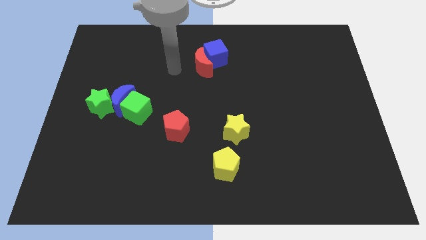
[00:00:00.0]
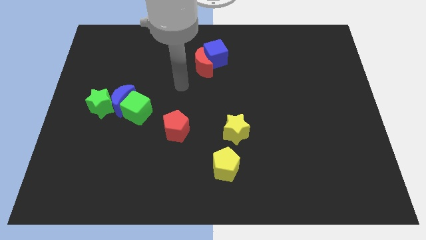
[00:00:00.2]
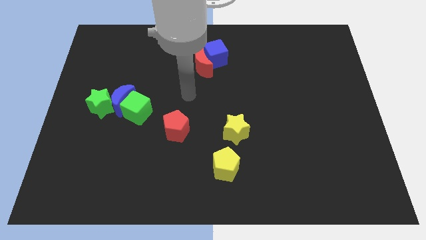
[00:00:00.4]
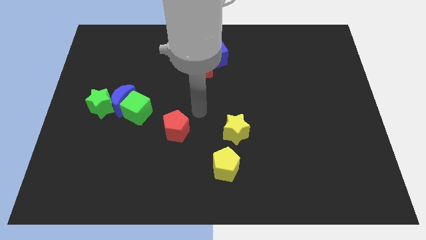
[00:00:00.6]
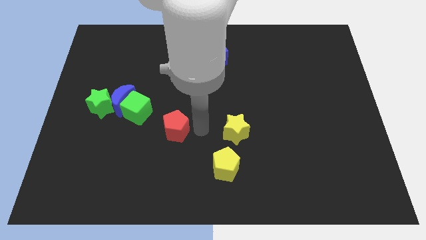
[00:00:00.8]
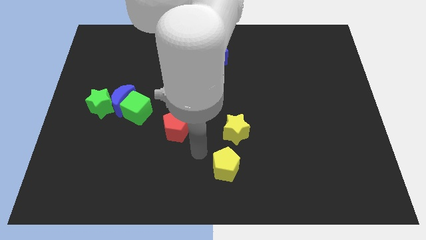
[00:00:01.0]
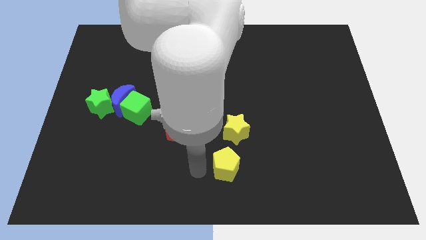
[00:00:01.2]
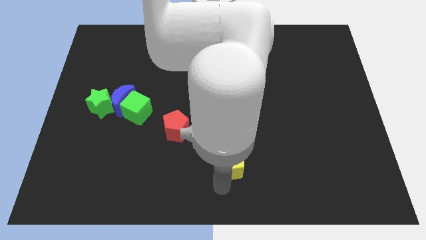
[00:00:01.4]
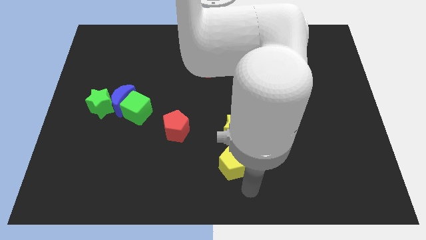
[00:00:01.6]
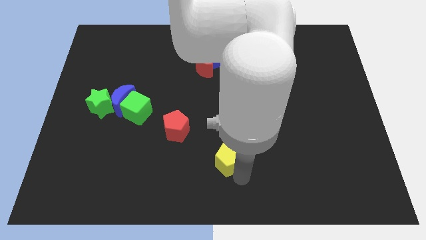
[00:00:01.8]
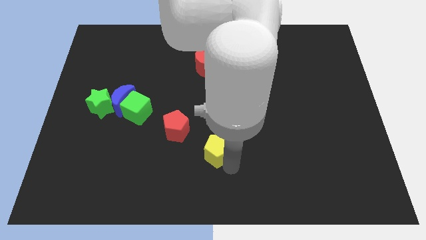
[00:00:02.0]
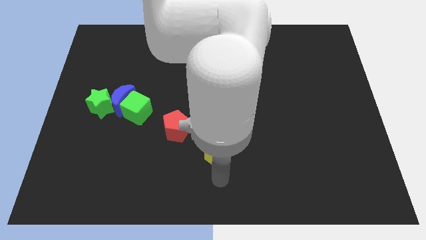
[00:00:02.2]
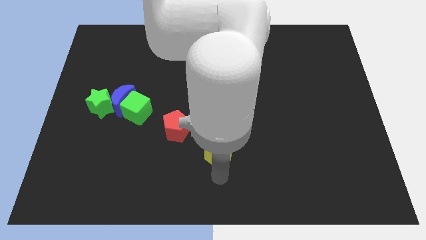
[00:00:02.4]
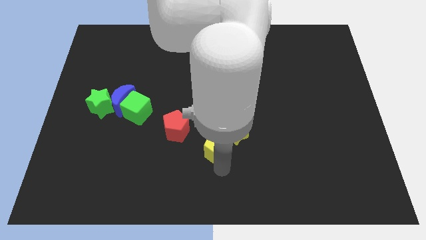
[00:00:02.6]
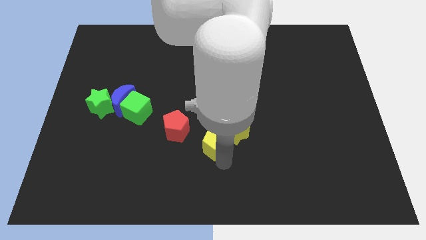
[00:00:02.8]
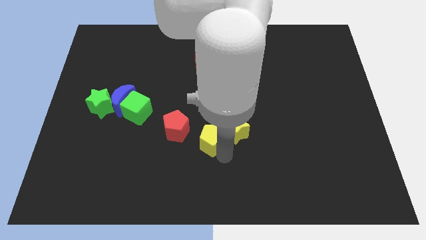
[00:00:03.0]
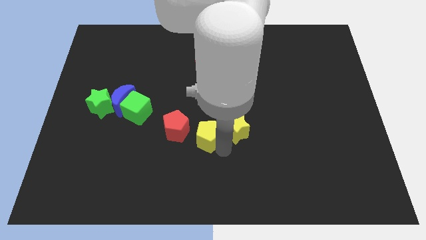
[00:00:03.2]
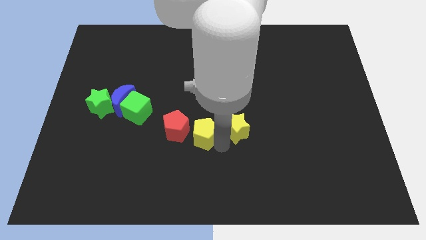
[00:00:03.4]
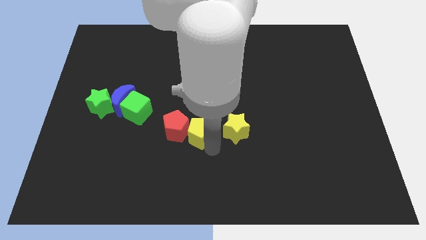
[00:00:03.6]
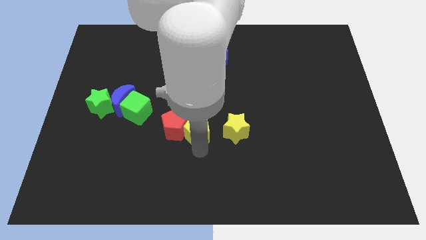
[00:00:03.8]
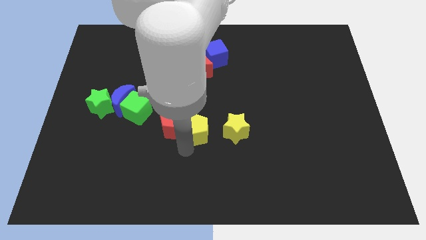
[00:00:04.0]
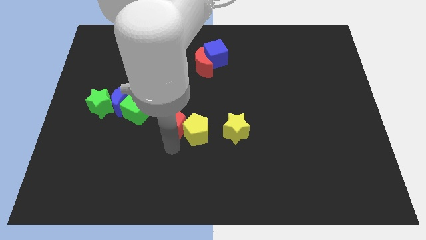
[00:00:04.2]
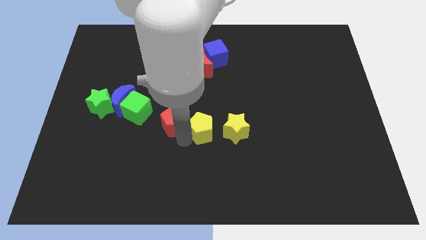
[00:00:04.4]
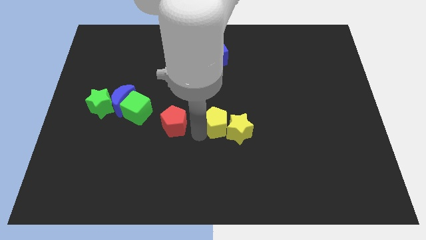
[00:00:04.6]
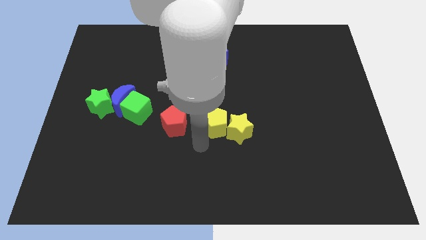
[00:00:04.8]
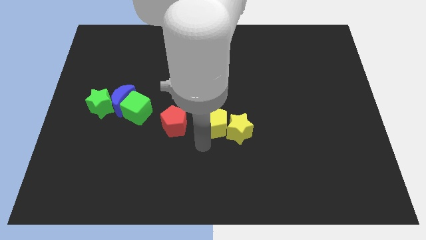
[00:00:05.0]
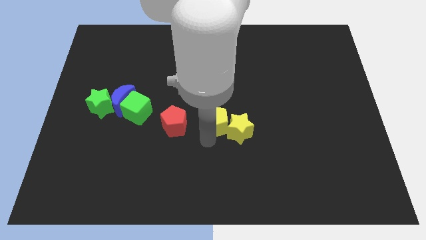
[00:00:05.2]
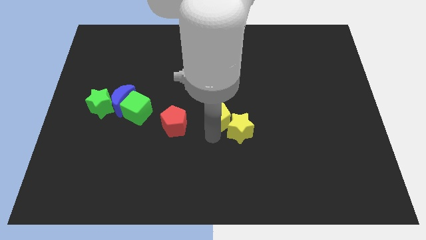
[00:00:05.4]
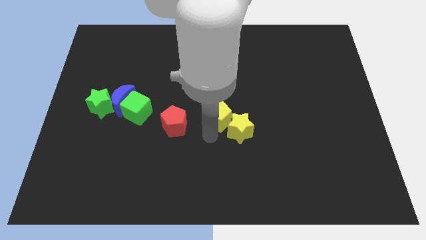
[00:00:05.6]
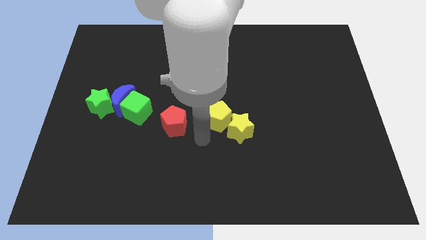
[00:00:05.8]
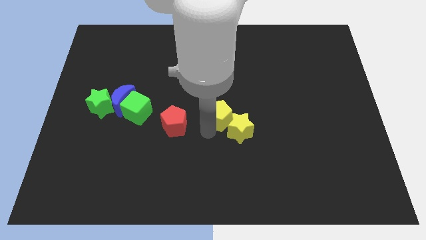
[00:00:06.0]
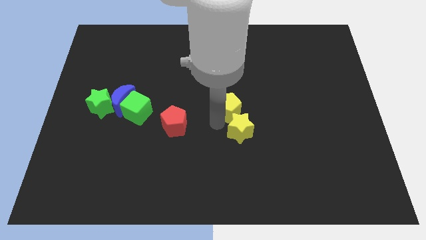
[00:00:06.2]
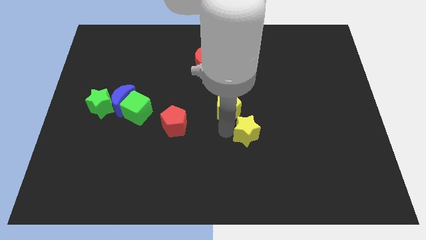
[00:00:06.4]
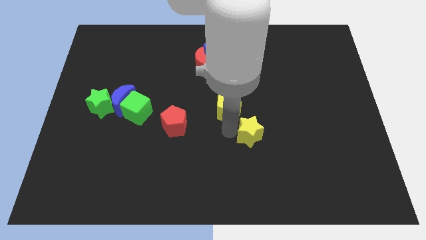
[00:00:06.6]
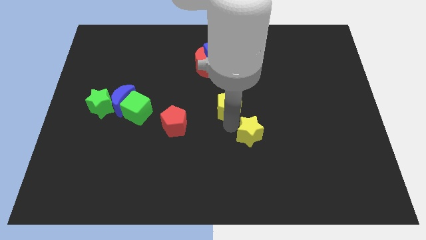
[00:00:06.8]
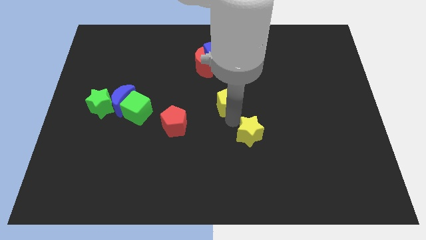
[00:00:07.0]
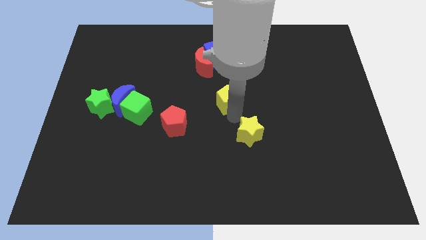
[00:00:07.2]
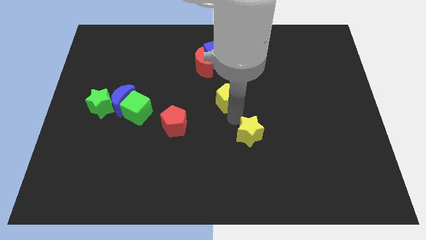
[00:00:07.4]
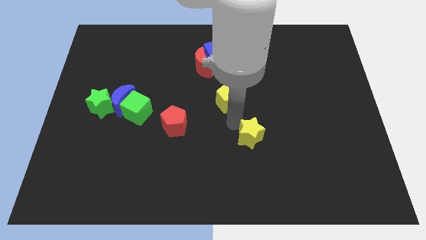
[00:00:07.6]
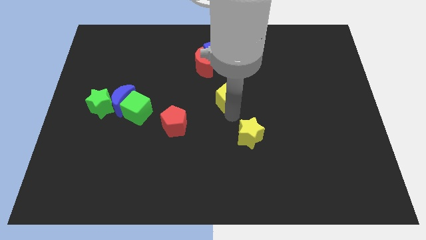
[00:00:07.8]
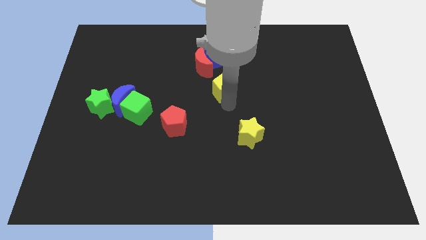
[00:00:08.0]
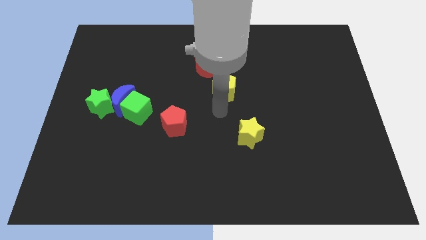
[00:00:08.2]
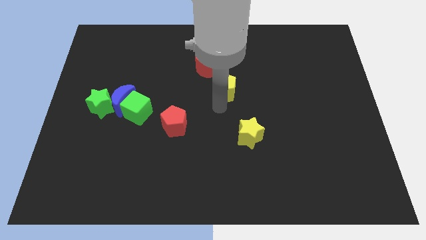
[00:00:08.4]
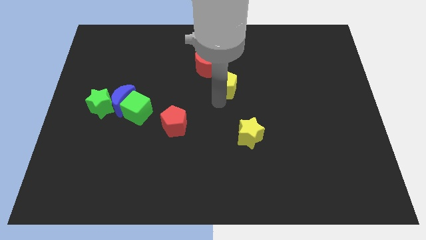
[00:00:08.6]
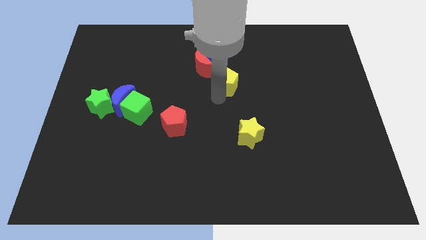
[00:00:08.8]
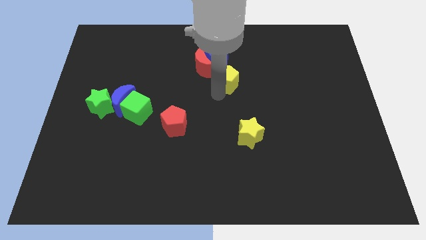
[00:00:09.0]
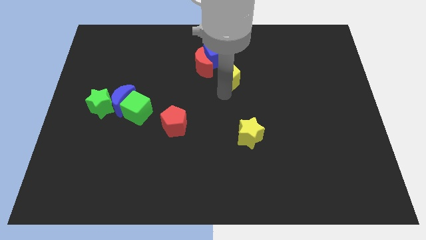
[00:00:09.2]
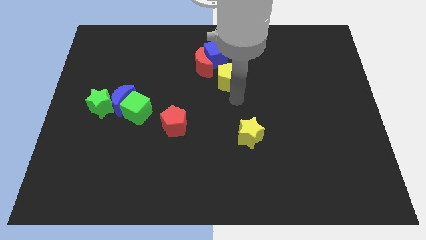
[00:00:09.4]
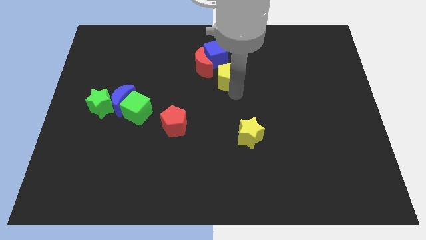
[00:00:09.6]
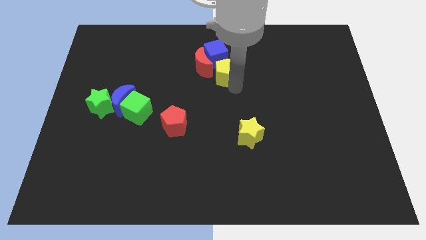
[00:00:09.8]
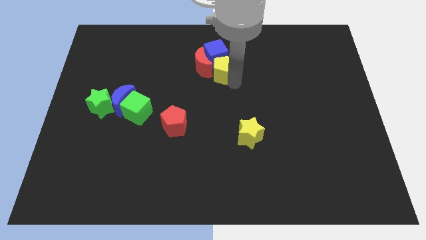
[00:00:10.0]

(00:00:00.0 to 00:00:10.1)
push the yellow pentagon close to the blue cube

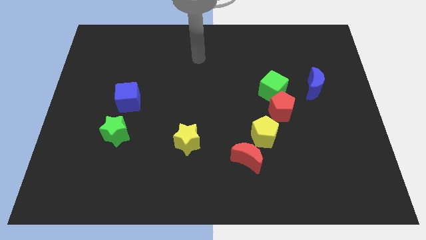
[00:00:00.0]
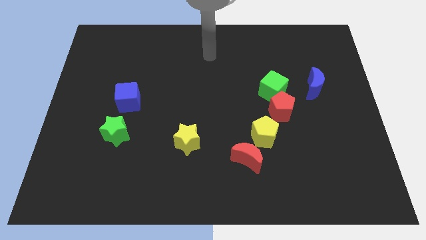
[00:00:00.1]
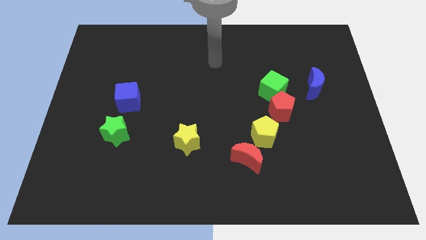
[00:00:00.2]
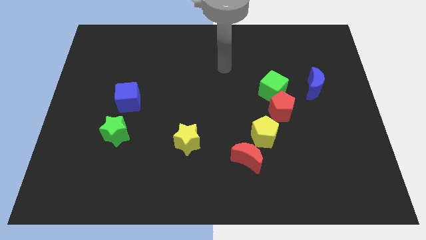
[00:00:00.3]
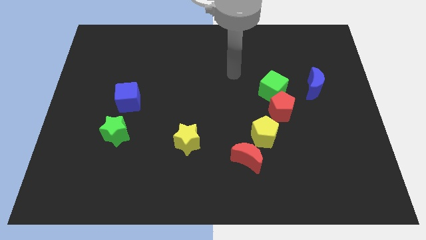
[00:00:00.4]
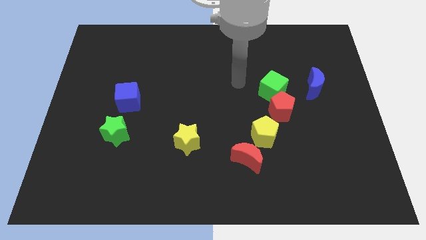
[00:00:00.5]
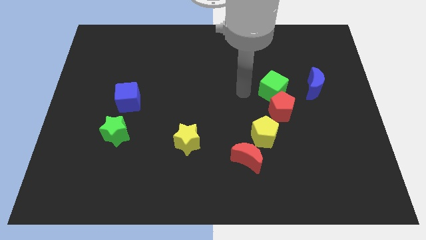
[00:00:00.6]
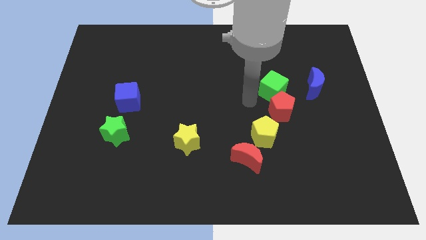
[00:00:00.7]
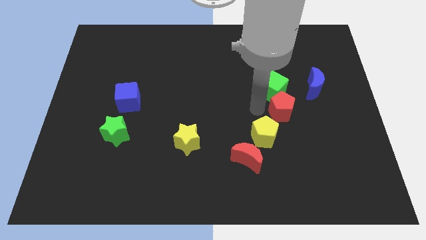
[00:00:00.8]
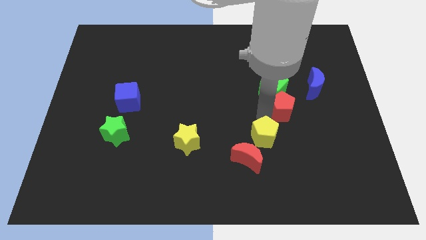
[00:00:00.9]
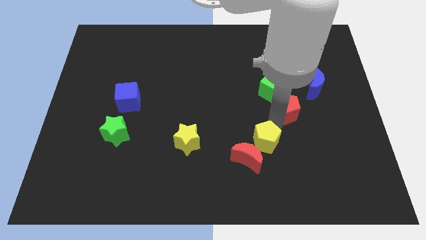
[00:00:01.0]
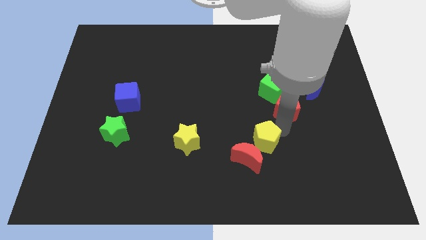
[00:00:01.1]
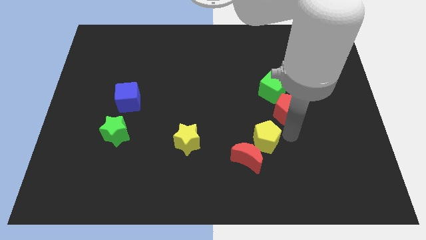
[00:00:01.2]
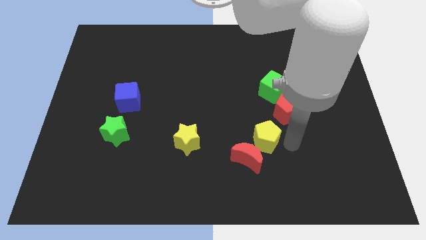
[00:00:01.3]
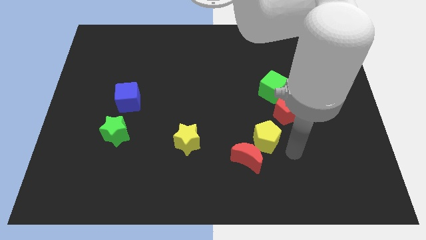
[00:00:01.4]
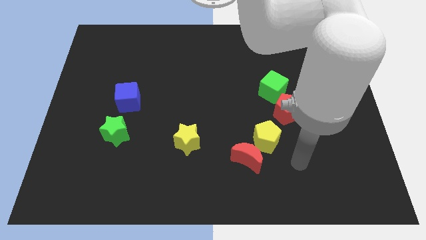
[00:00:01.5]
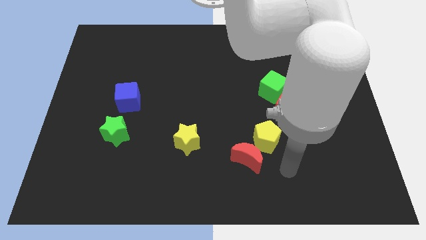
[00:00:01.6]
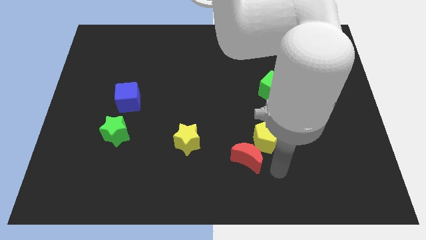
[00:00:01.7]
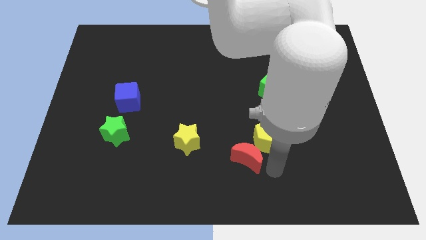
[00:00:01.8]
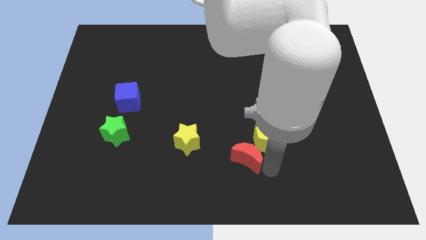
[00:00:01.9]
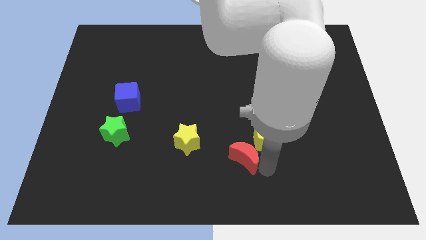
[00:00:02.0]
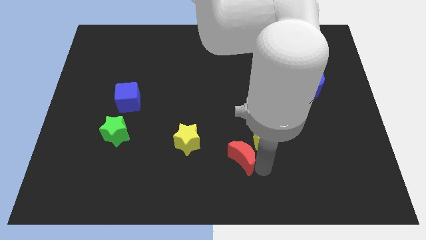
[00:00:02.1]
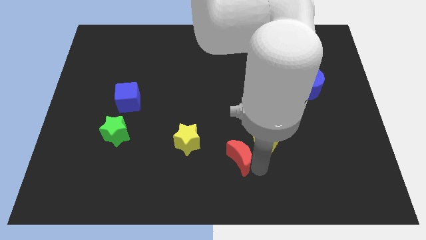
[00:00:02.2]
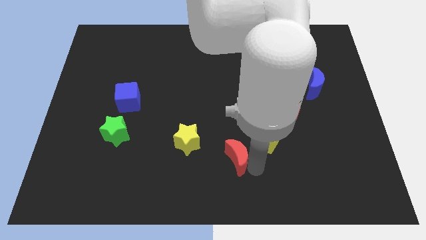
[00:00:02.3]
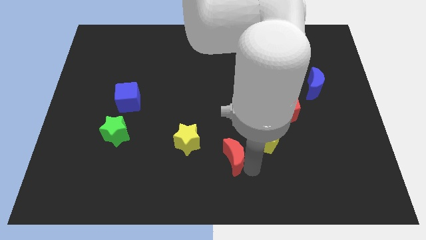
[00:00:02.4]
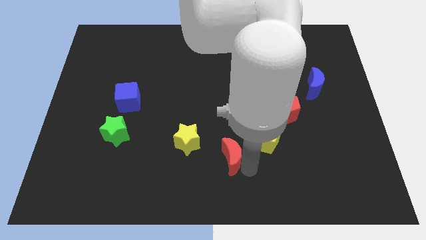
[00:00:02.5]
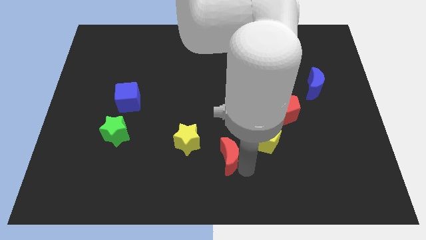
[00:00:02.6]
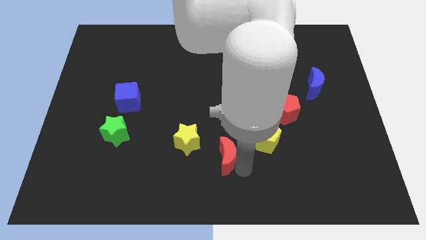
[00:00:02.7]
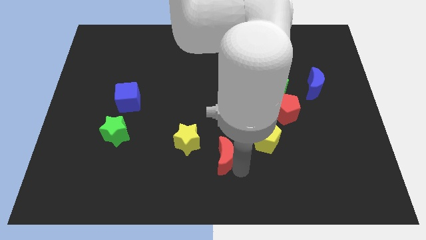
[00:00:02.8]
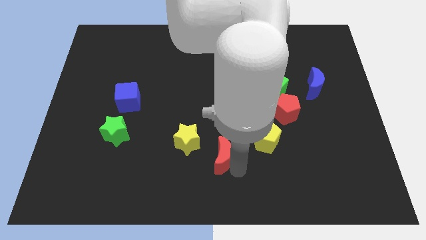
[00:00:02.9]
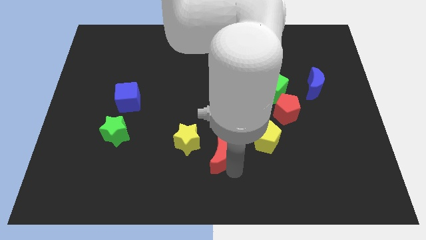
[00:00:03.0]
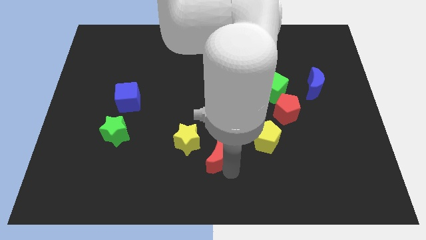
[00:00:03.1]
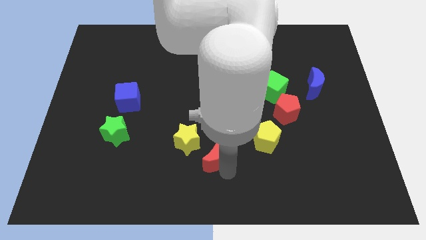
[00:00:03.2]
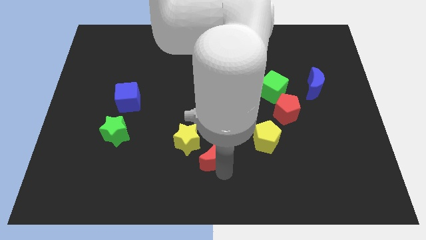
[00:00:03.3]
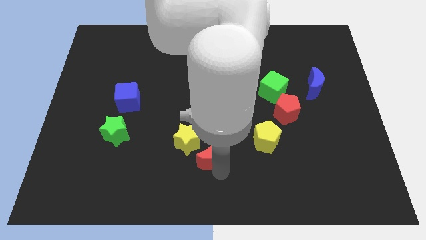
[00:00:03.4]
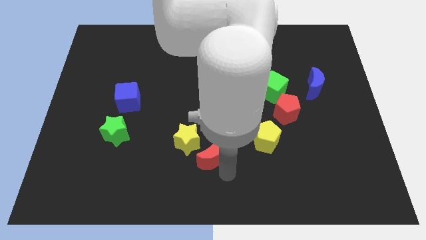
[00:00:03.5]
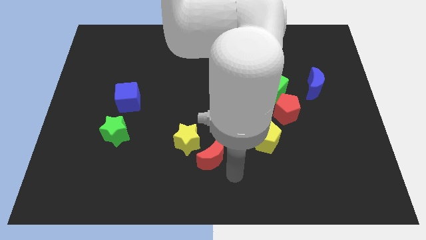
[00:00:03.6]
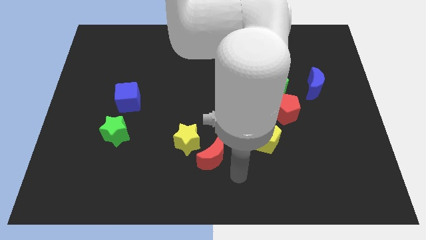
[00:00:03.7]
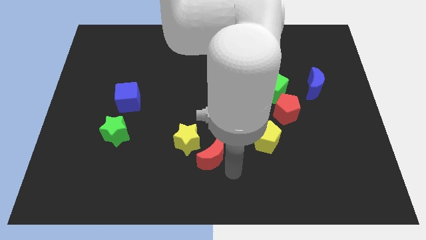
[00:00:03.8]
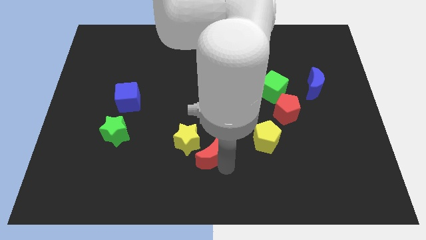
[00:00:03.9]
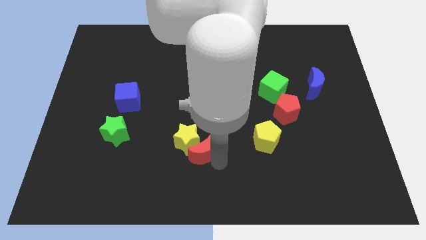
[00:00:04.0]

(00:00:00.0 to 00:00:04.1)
push the red moon next to the yellow star
